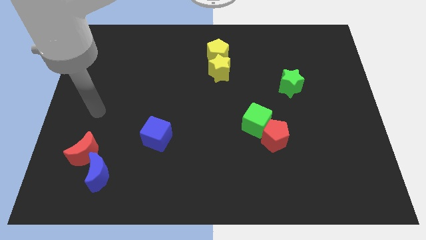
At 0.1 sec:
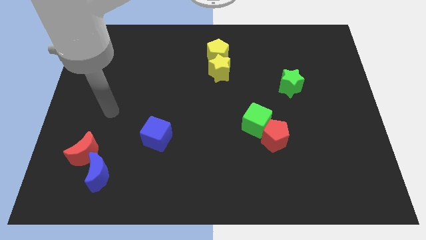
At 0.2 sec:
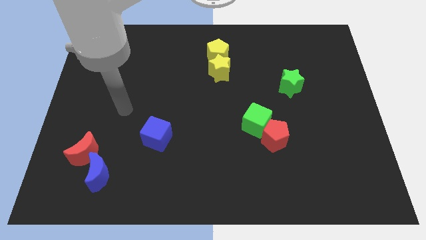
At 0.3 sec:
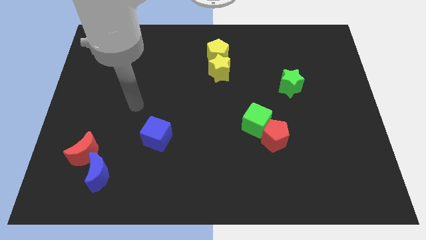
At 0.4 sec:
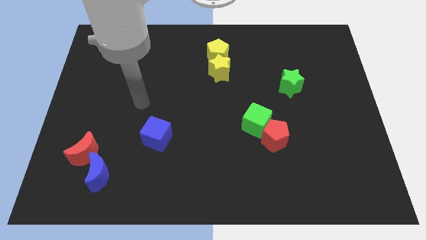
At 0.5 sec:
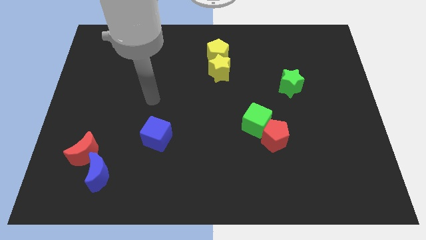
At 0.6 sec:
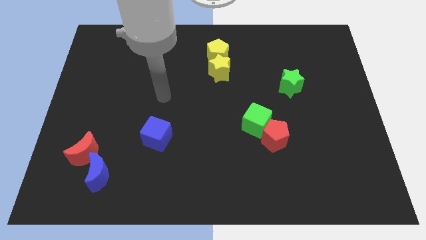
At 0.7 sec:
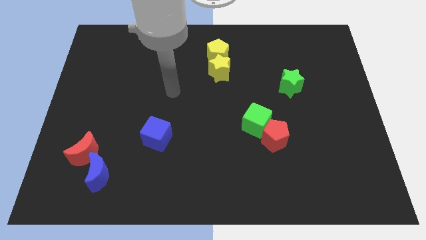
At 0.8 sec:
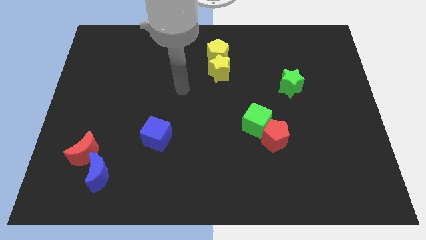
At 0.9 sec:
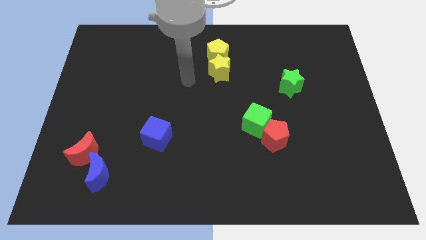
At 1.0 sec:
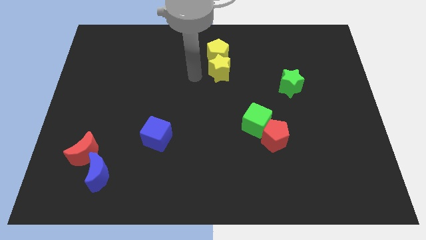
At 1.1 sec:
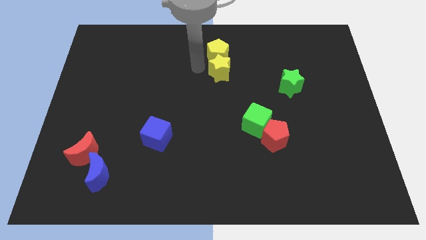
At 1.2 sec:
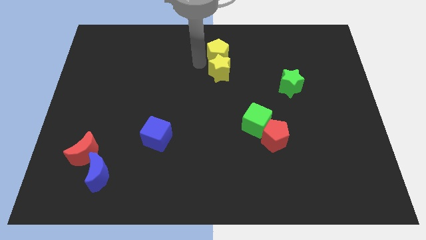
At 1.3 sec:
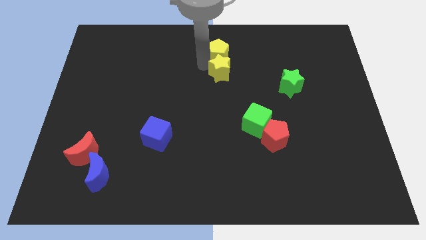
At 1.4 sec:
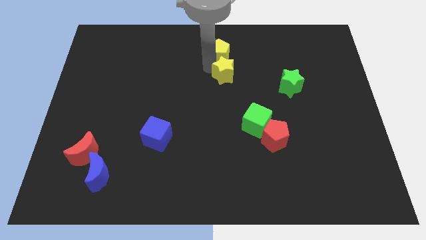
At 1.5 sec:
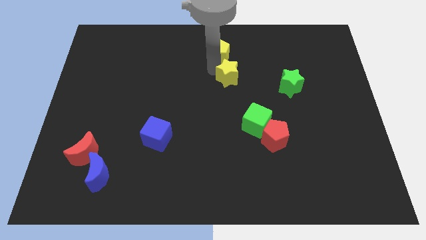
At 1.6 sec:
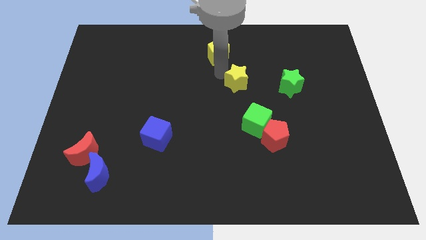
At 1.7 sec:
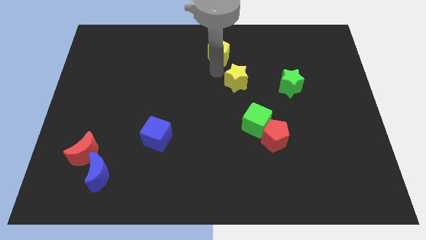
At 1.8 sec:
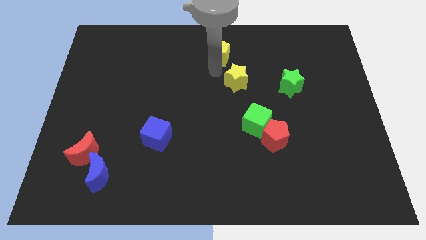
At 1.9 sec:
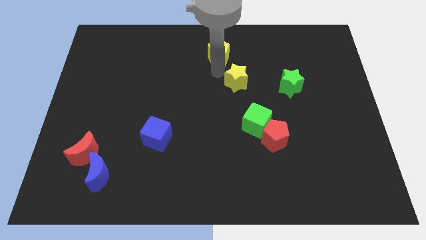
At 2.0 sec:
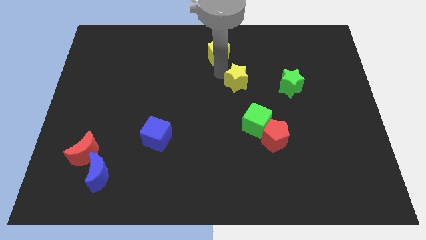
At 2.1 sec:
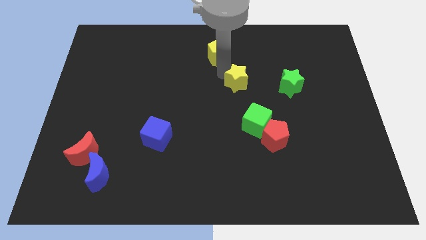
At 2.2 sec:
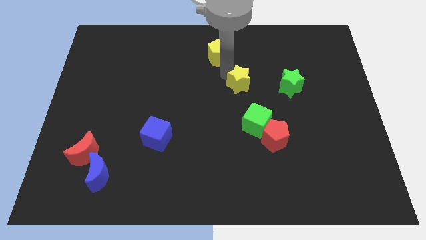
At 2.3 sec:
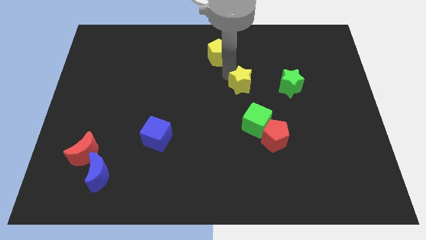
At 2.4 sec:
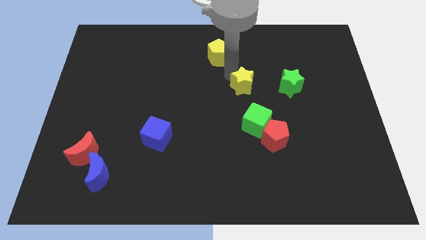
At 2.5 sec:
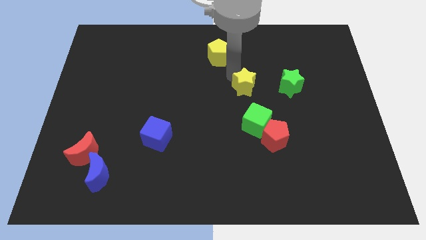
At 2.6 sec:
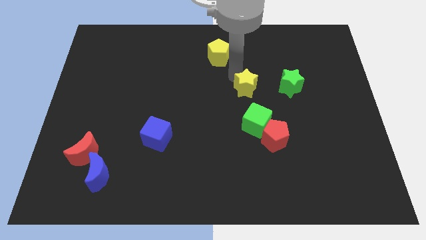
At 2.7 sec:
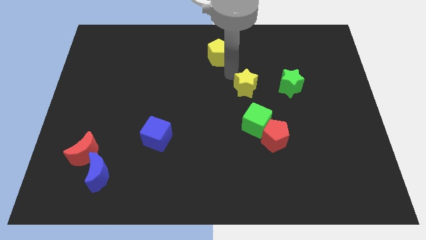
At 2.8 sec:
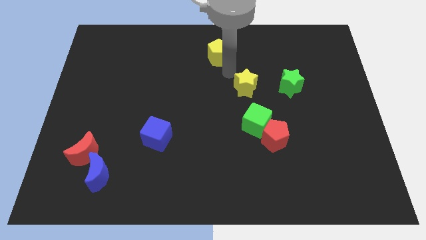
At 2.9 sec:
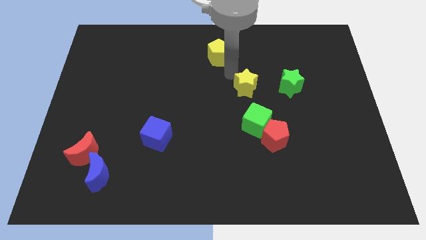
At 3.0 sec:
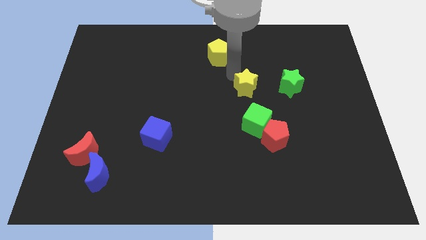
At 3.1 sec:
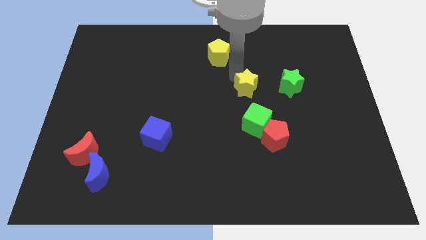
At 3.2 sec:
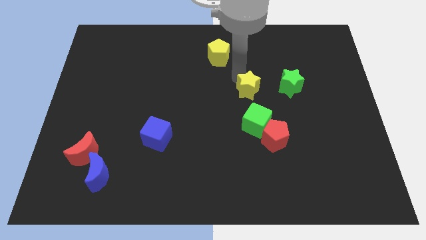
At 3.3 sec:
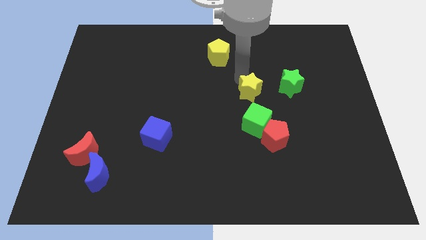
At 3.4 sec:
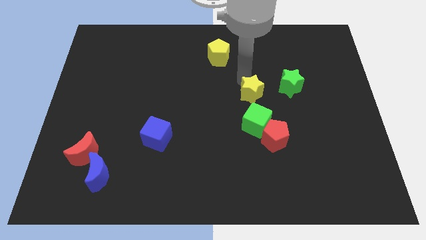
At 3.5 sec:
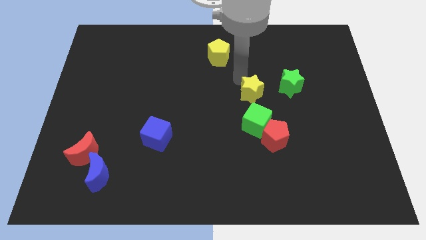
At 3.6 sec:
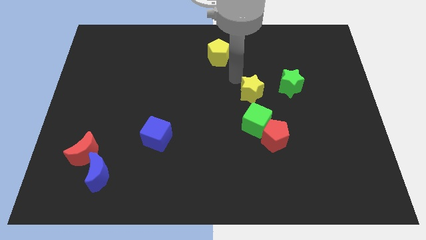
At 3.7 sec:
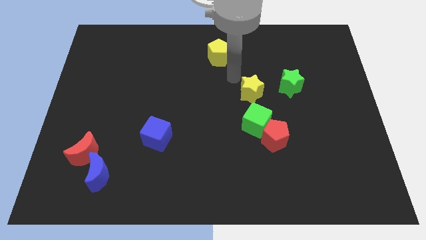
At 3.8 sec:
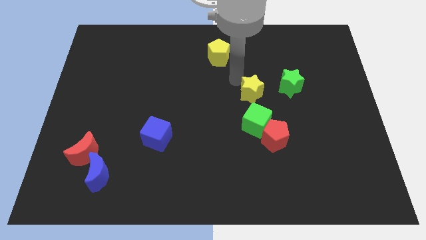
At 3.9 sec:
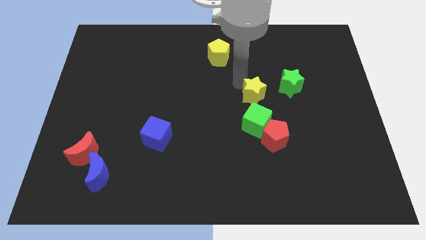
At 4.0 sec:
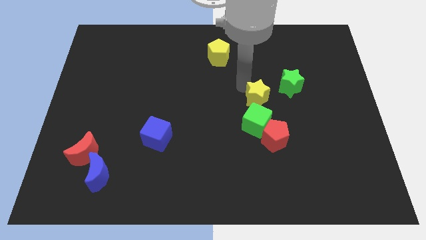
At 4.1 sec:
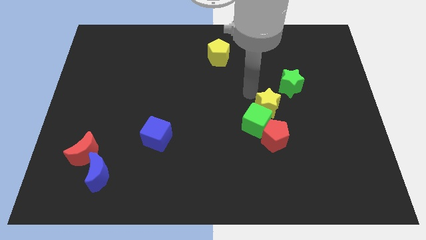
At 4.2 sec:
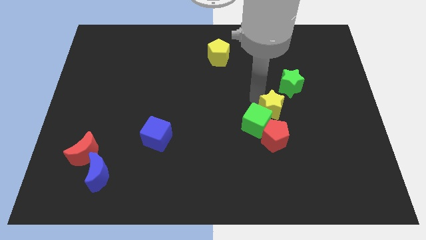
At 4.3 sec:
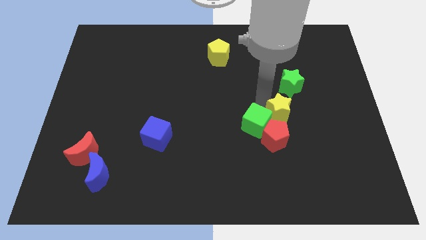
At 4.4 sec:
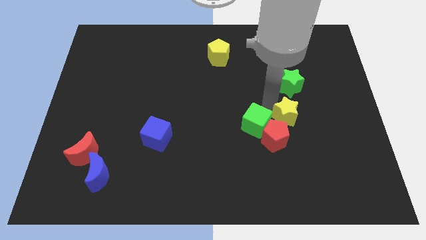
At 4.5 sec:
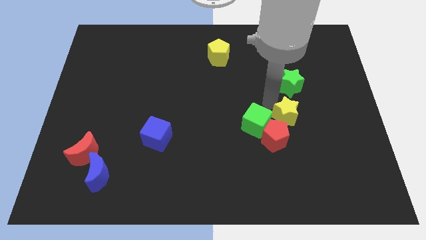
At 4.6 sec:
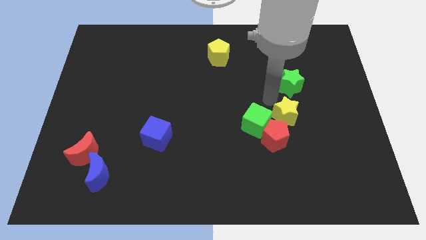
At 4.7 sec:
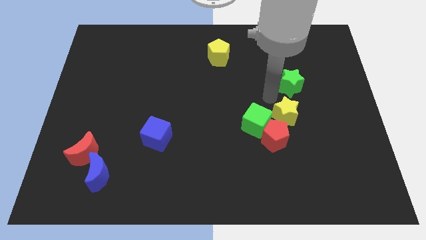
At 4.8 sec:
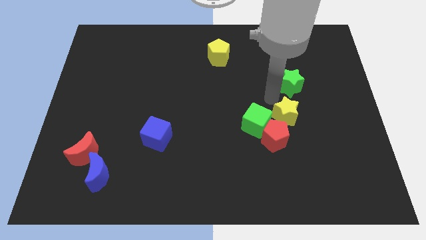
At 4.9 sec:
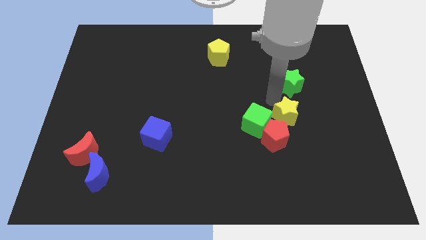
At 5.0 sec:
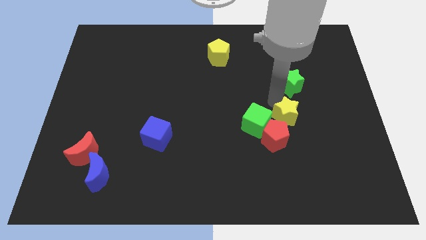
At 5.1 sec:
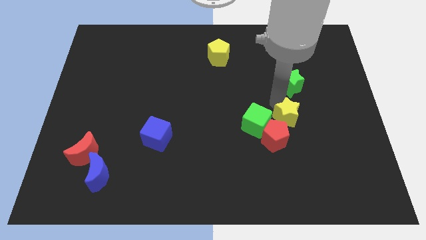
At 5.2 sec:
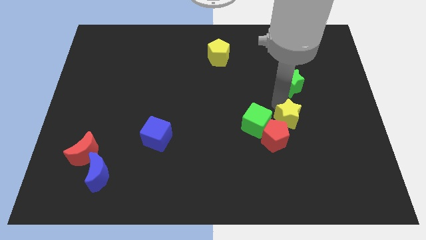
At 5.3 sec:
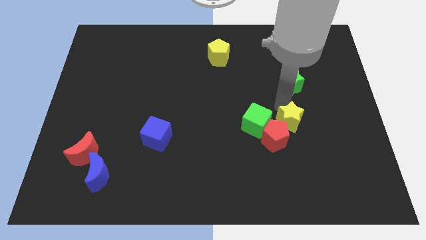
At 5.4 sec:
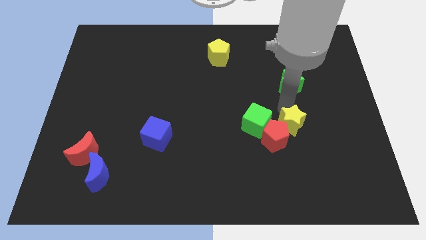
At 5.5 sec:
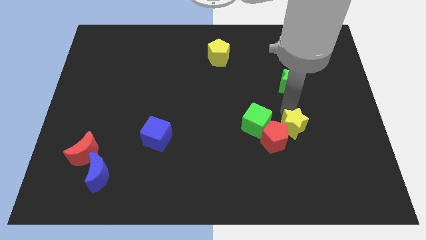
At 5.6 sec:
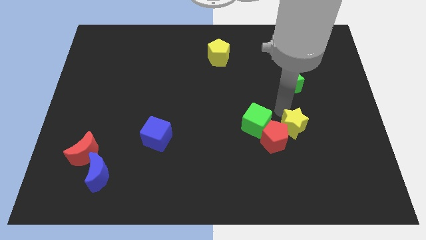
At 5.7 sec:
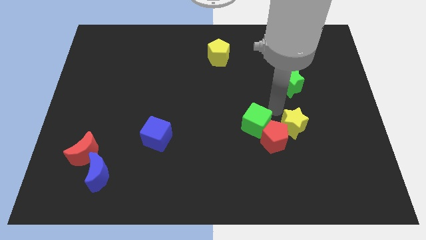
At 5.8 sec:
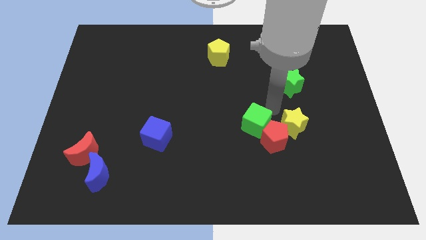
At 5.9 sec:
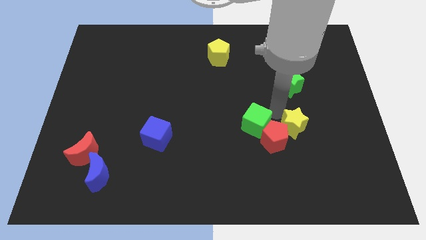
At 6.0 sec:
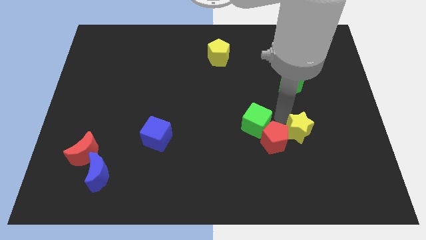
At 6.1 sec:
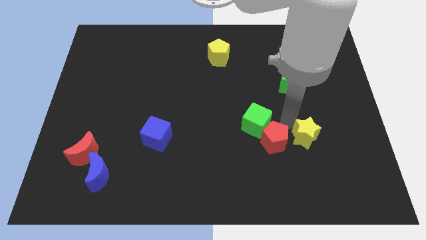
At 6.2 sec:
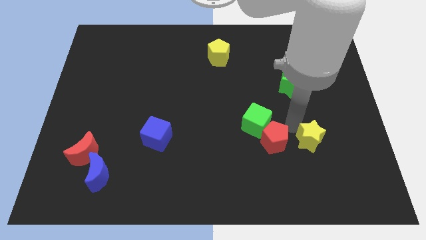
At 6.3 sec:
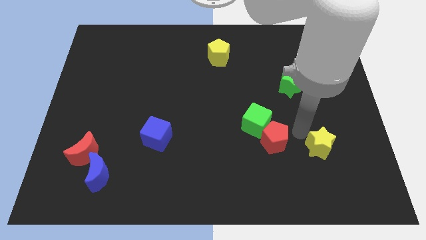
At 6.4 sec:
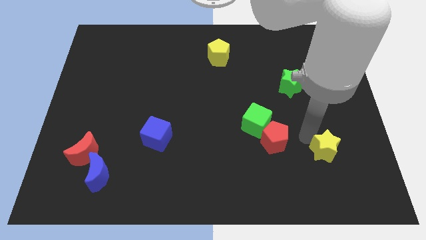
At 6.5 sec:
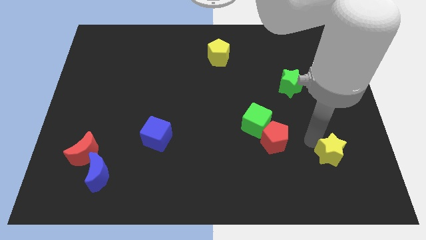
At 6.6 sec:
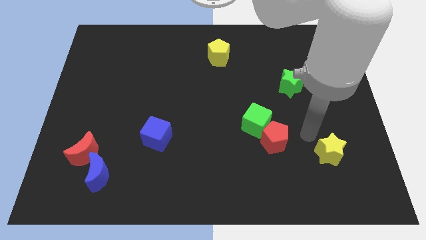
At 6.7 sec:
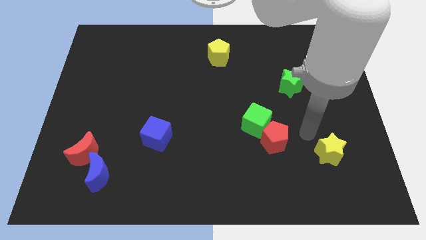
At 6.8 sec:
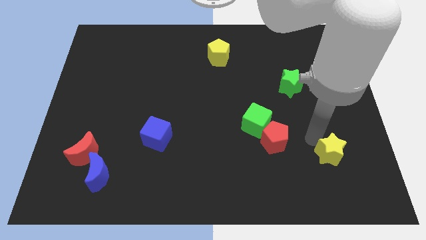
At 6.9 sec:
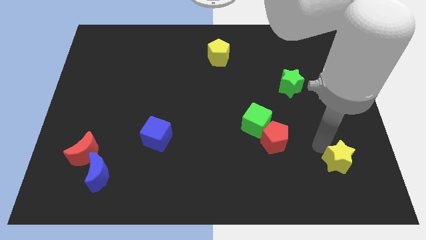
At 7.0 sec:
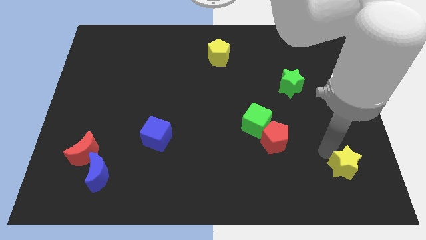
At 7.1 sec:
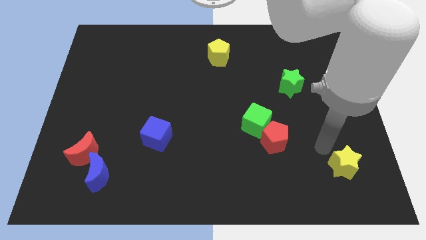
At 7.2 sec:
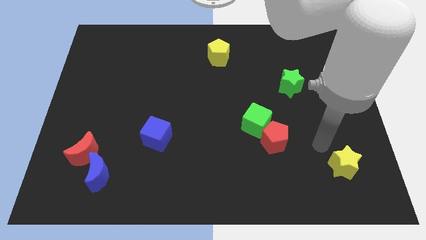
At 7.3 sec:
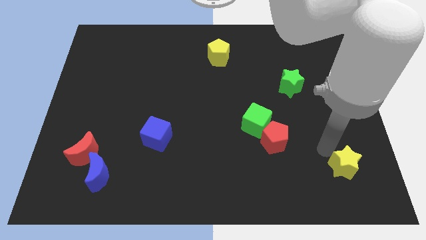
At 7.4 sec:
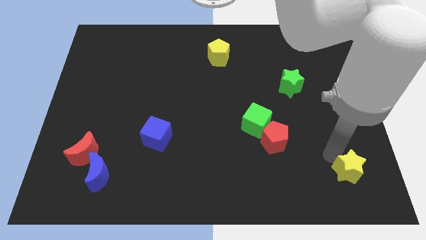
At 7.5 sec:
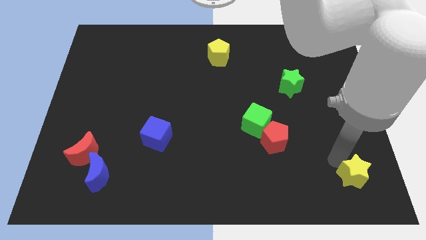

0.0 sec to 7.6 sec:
move the yellow star to the bottom right corner

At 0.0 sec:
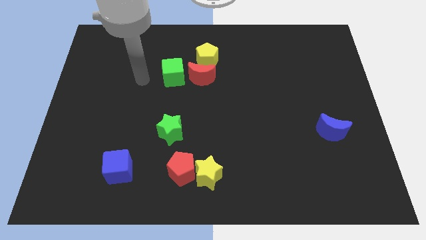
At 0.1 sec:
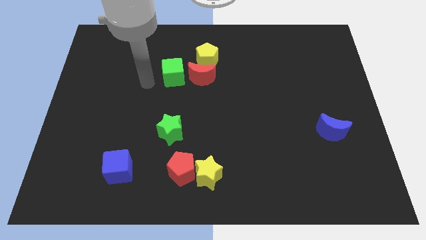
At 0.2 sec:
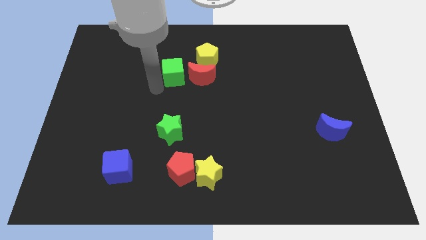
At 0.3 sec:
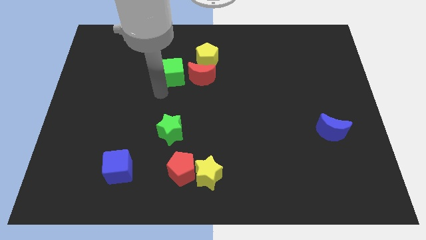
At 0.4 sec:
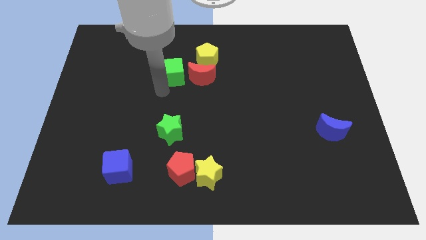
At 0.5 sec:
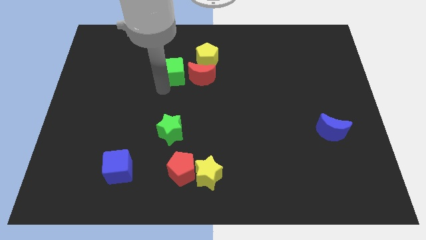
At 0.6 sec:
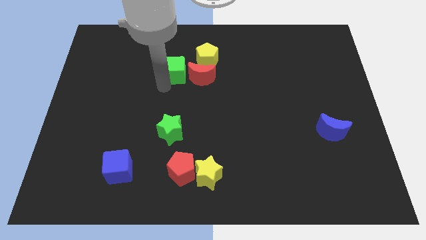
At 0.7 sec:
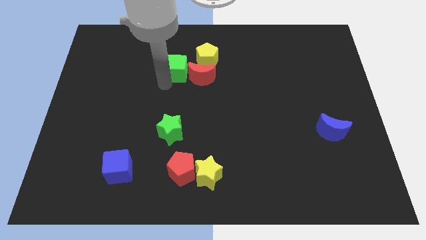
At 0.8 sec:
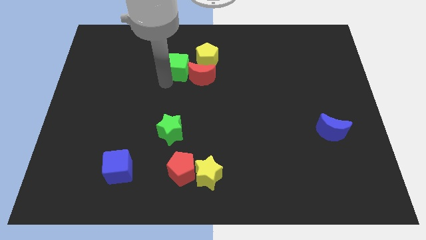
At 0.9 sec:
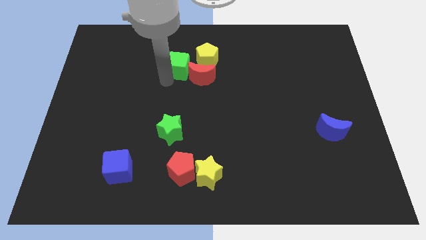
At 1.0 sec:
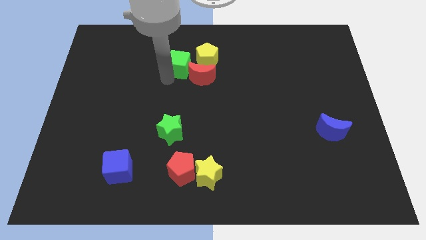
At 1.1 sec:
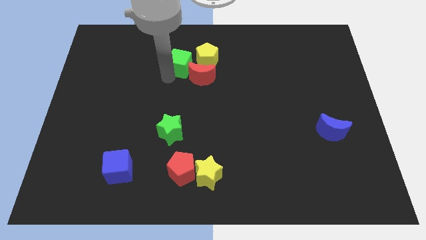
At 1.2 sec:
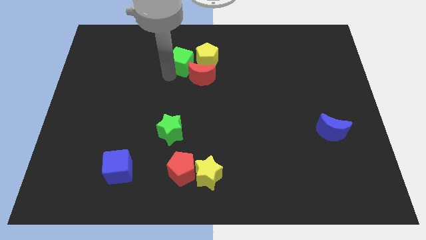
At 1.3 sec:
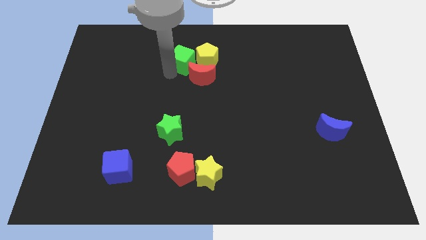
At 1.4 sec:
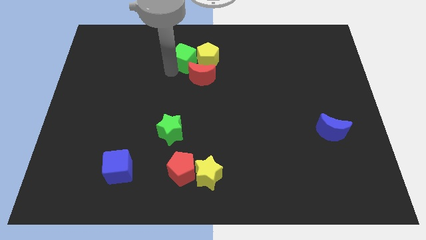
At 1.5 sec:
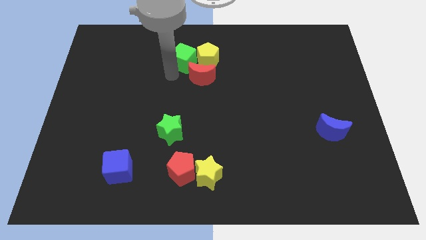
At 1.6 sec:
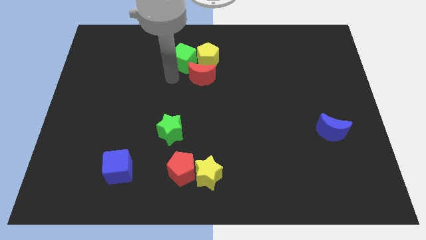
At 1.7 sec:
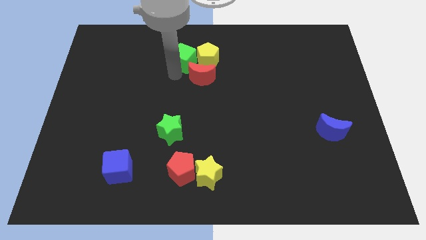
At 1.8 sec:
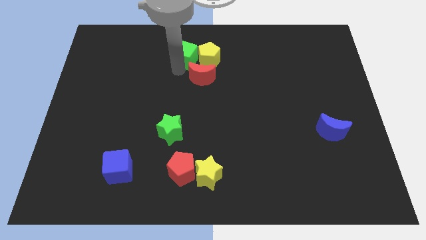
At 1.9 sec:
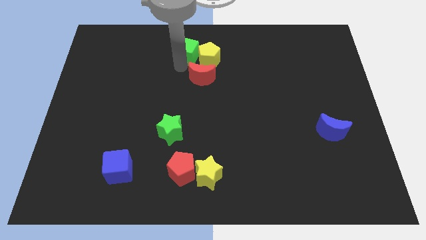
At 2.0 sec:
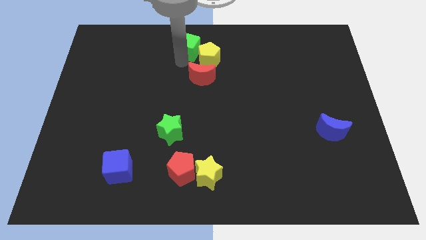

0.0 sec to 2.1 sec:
push the green cube to the towards your base
